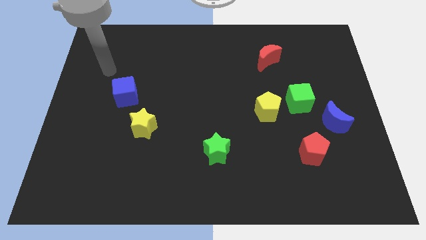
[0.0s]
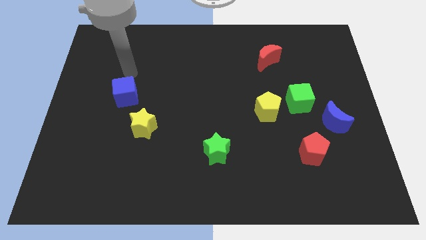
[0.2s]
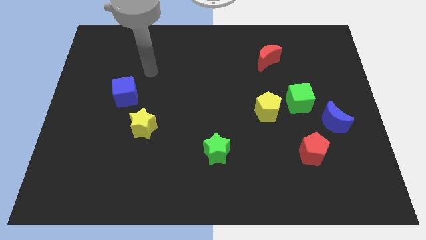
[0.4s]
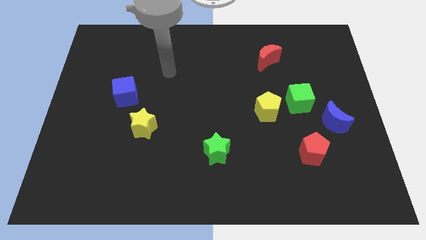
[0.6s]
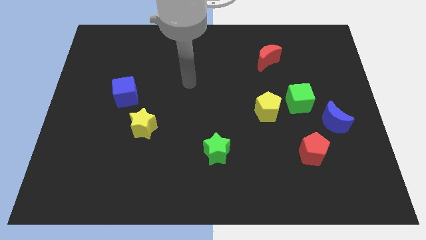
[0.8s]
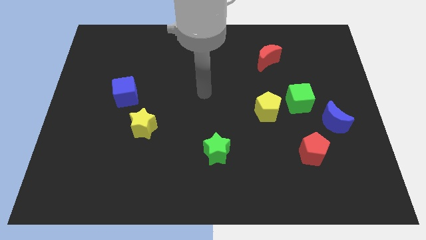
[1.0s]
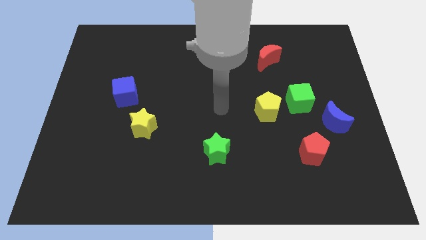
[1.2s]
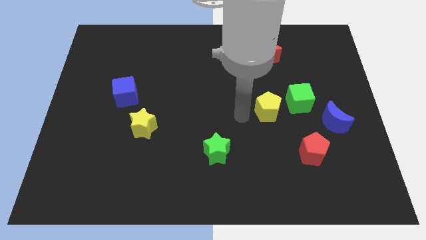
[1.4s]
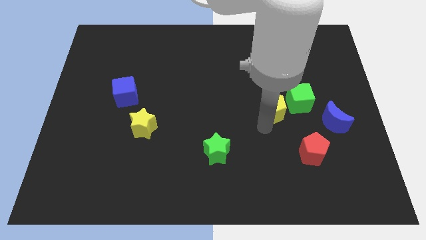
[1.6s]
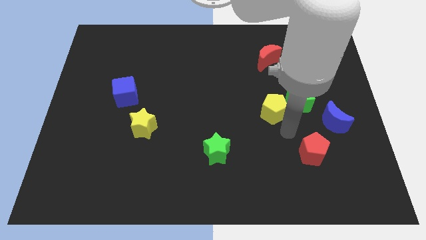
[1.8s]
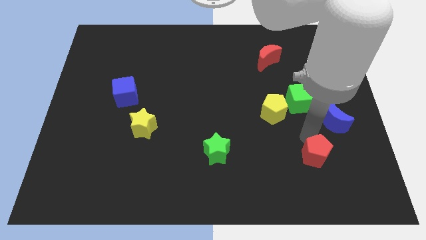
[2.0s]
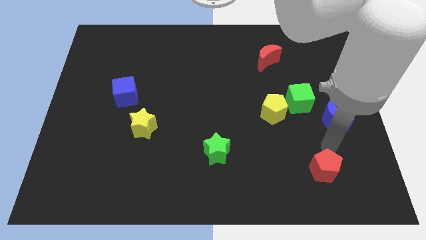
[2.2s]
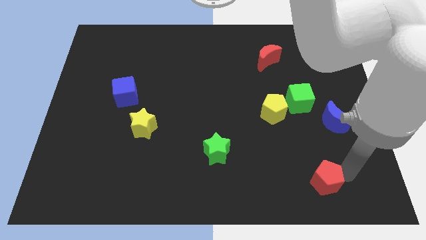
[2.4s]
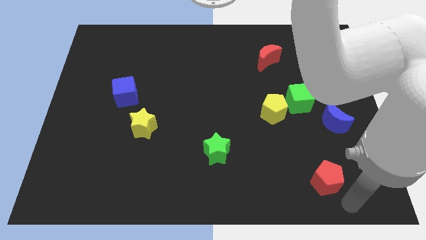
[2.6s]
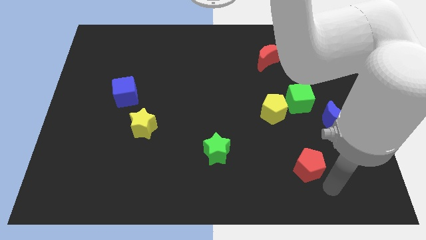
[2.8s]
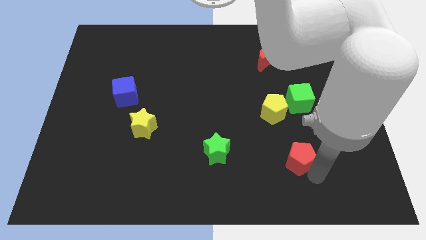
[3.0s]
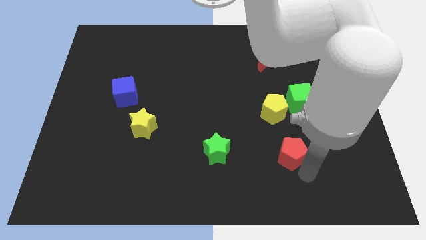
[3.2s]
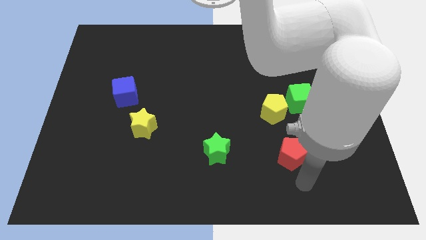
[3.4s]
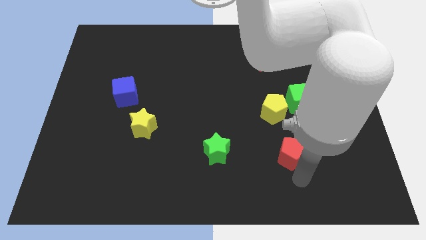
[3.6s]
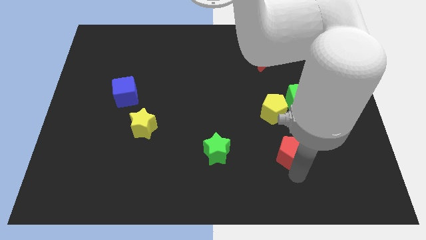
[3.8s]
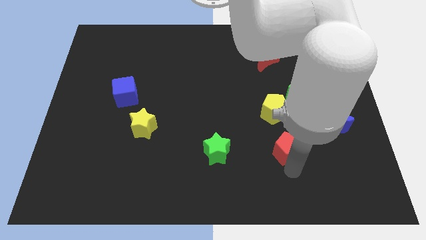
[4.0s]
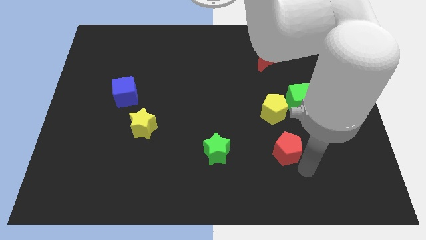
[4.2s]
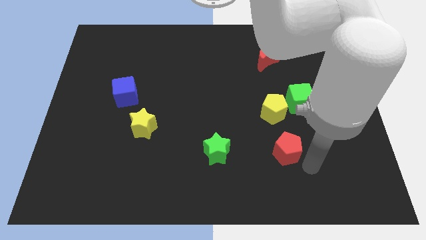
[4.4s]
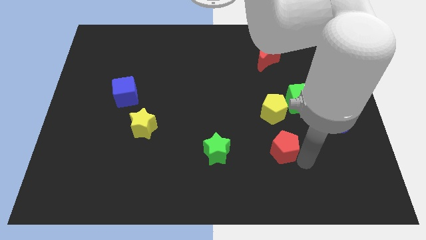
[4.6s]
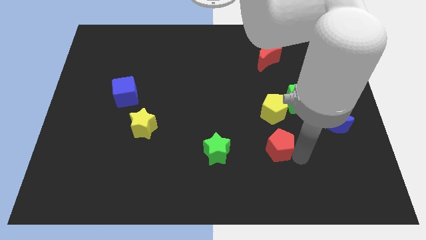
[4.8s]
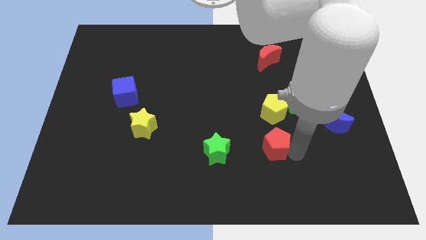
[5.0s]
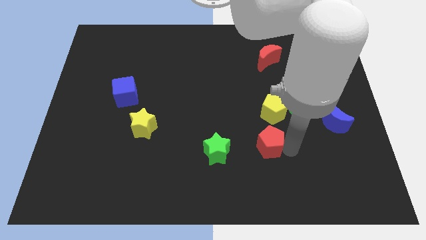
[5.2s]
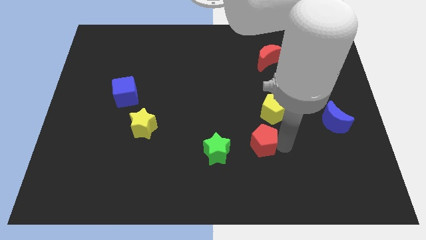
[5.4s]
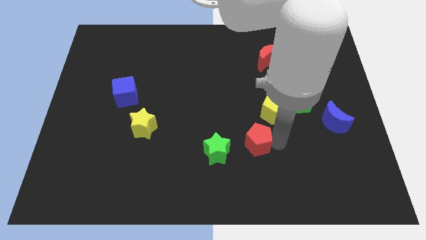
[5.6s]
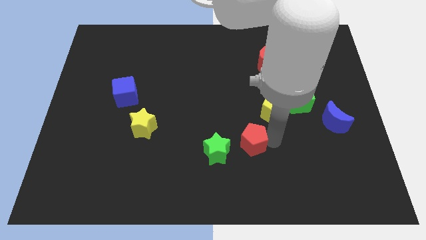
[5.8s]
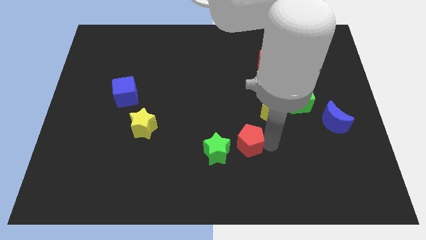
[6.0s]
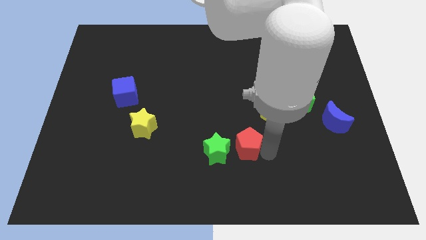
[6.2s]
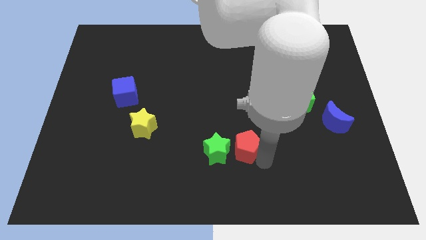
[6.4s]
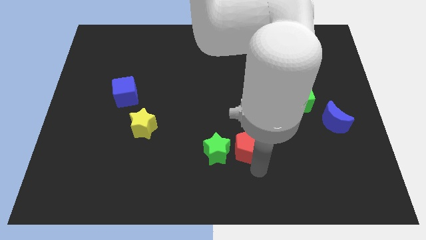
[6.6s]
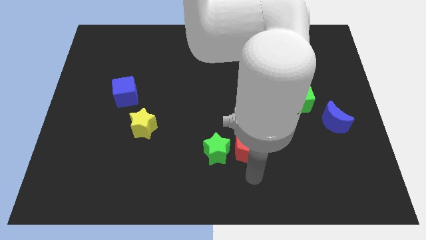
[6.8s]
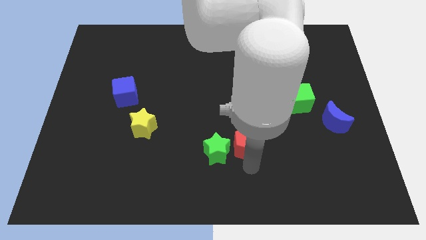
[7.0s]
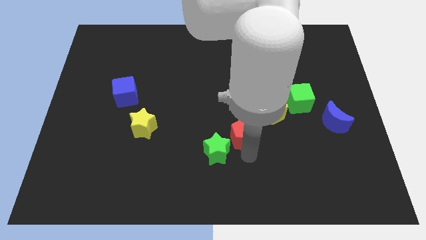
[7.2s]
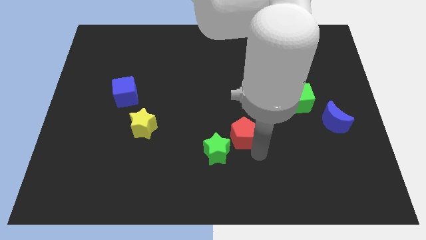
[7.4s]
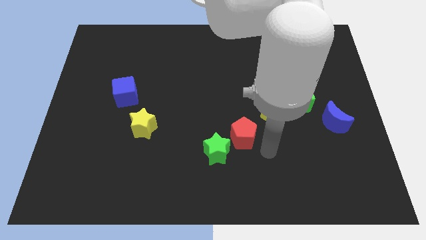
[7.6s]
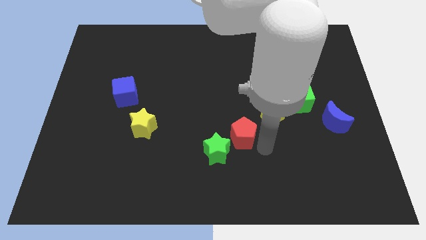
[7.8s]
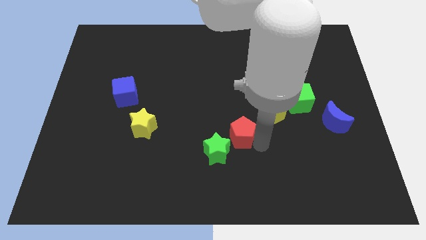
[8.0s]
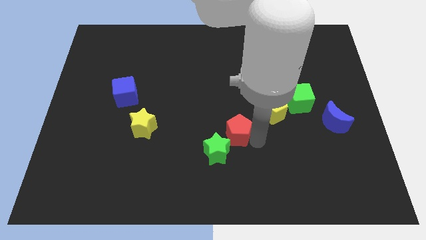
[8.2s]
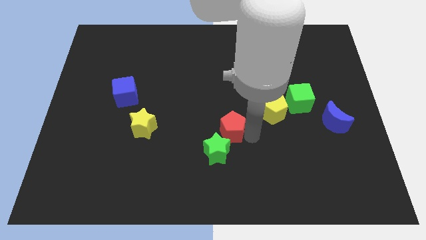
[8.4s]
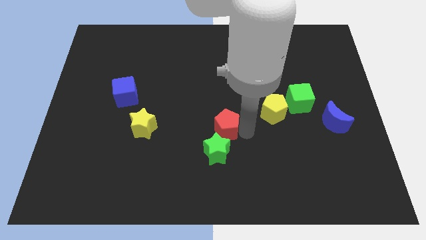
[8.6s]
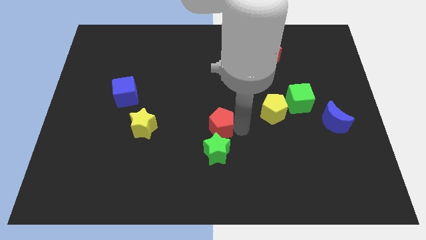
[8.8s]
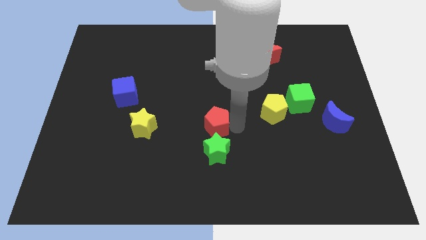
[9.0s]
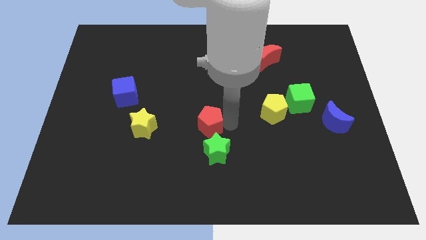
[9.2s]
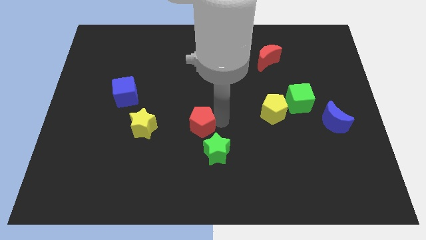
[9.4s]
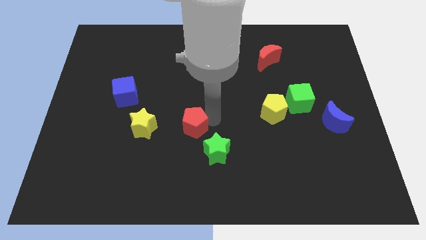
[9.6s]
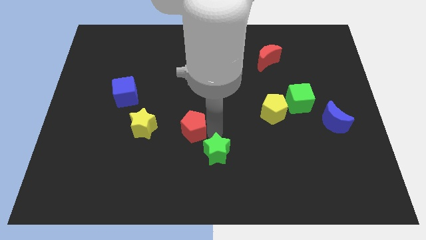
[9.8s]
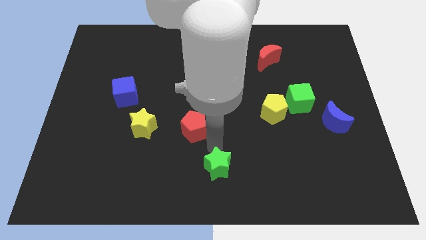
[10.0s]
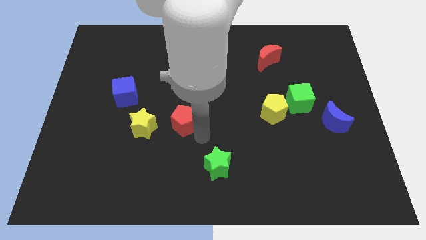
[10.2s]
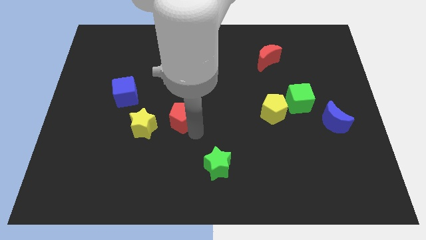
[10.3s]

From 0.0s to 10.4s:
slide the red pentagon diagonally up and to the right of the yellow star

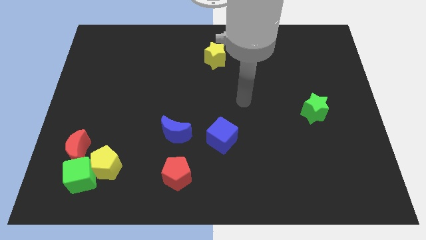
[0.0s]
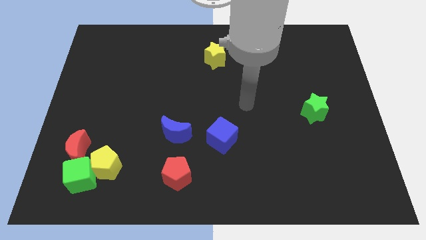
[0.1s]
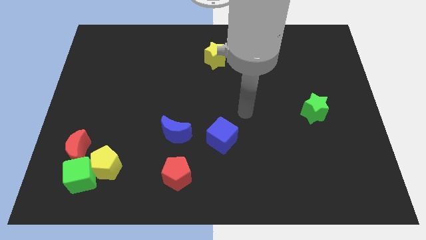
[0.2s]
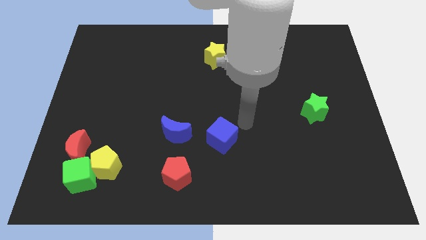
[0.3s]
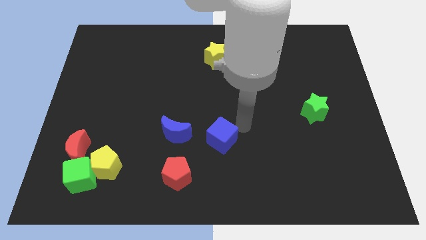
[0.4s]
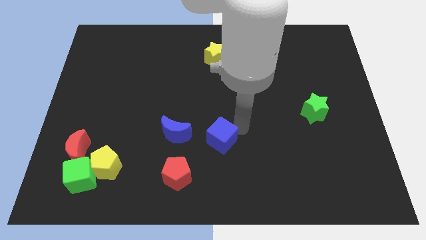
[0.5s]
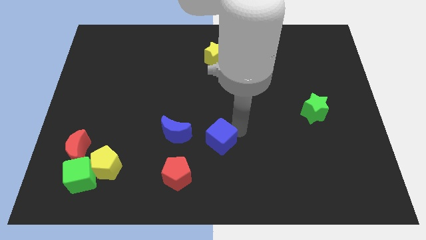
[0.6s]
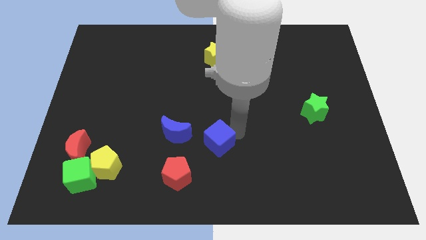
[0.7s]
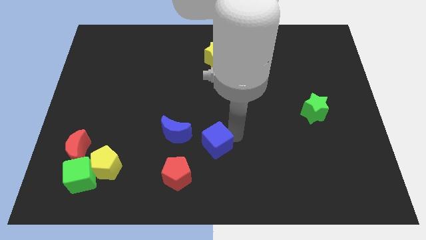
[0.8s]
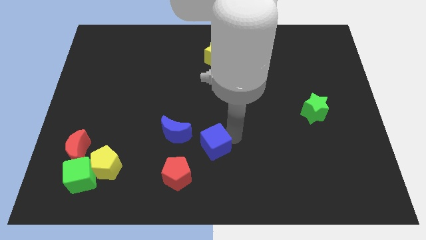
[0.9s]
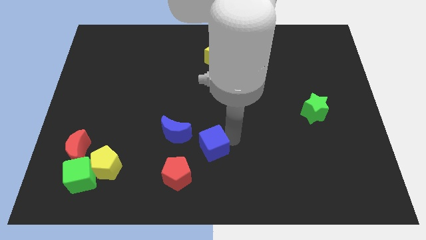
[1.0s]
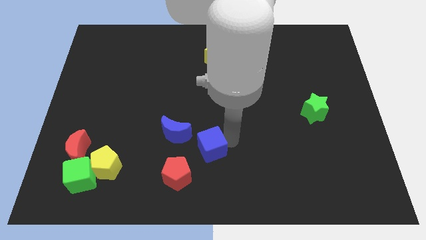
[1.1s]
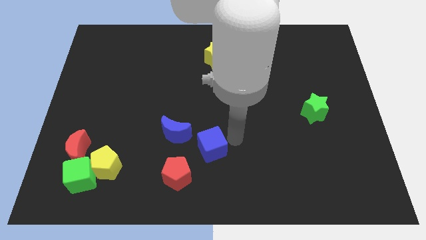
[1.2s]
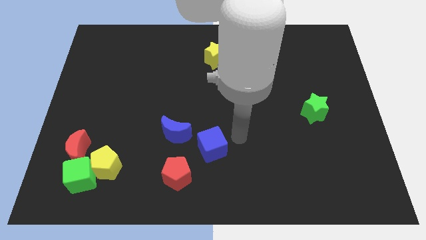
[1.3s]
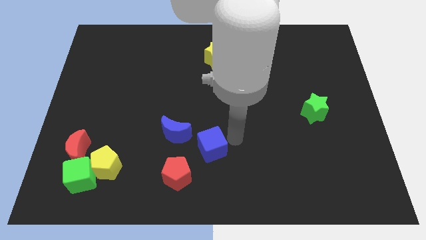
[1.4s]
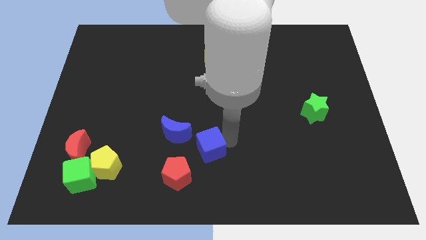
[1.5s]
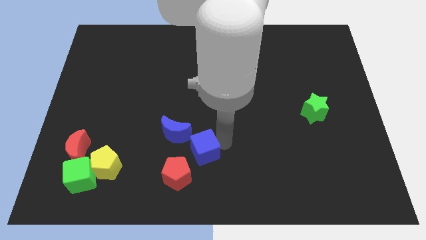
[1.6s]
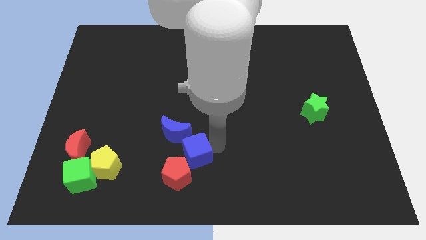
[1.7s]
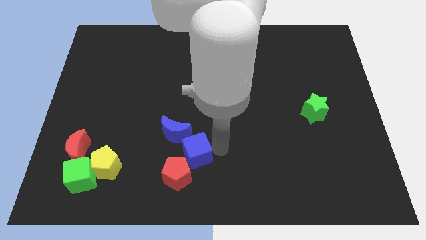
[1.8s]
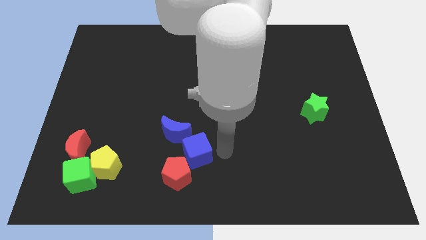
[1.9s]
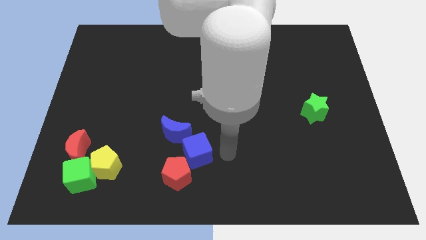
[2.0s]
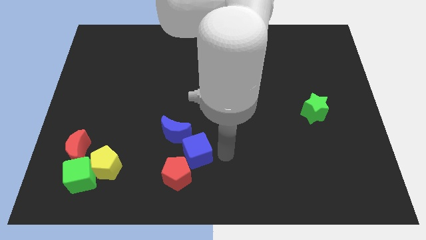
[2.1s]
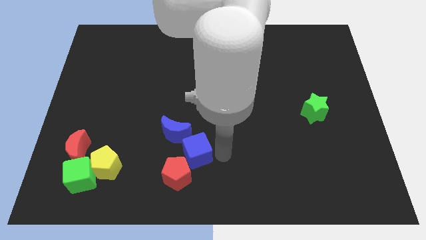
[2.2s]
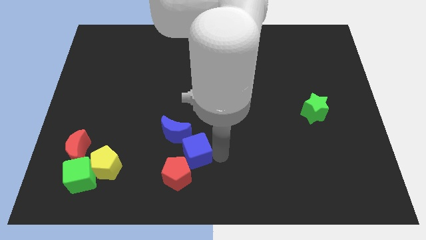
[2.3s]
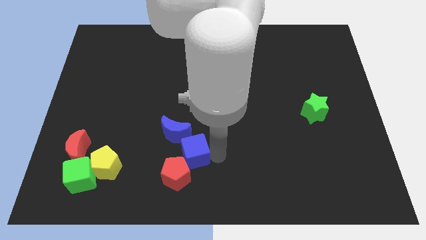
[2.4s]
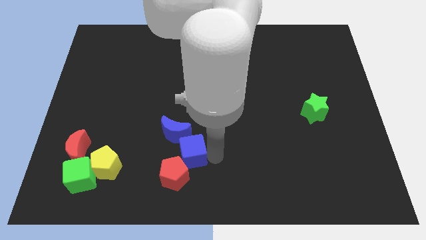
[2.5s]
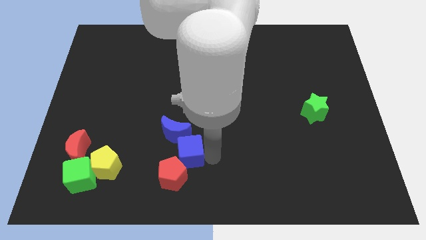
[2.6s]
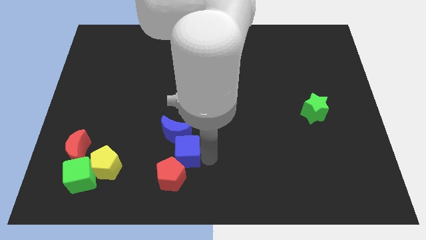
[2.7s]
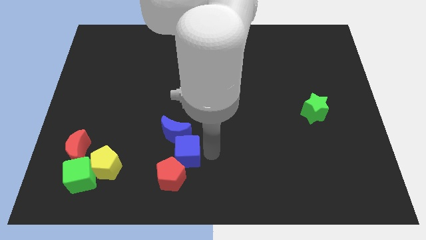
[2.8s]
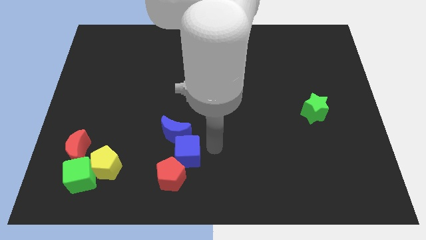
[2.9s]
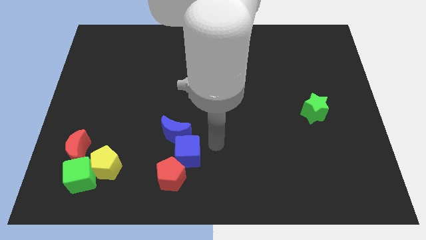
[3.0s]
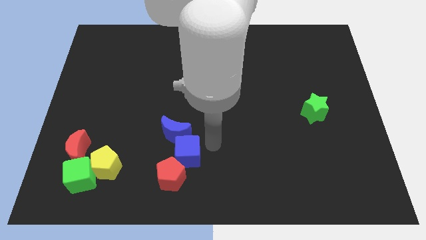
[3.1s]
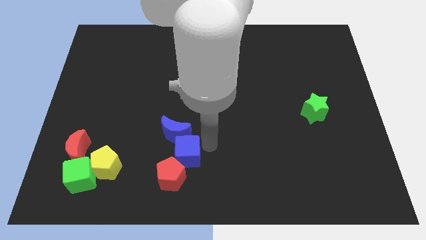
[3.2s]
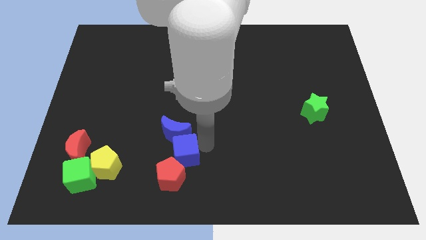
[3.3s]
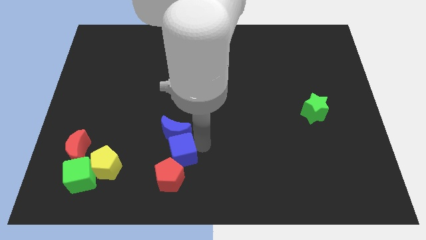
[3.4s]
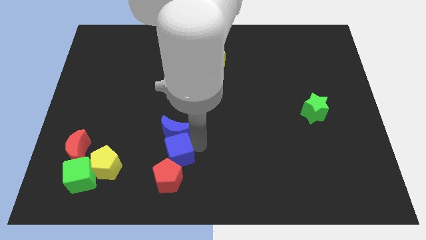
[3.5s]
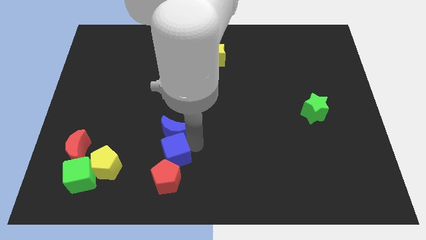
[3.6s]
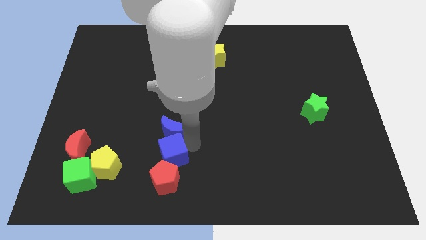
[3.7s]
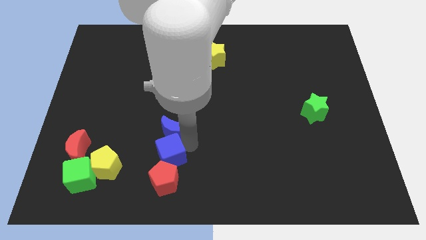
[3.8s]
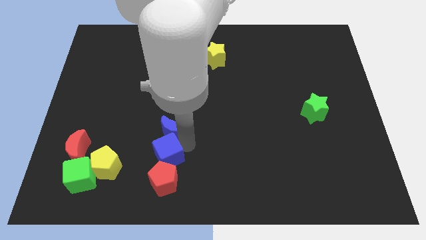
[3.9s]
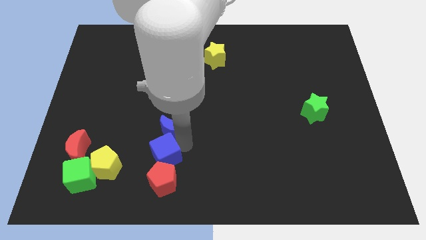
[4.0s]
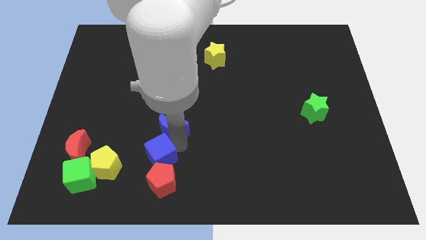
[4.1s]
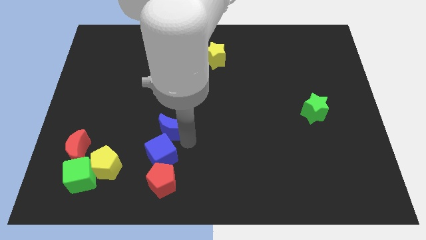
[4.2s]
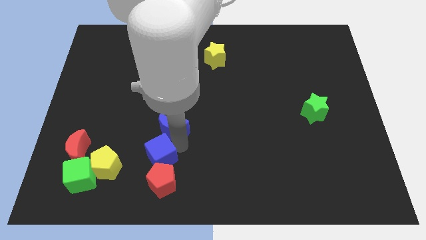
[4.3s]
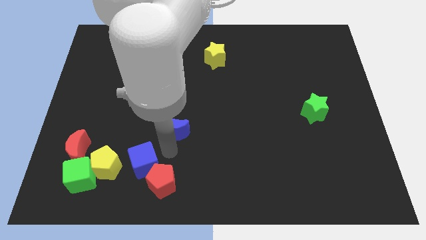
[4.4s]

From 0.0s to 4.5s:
slide the blue cube to the left of the red pentagon
